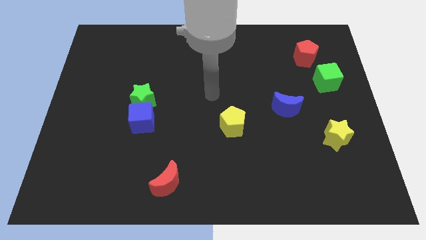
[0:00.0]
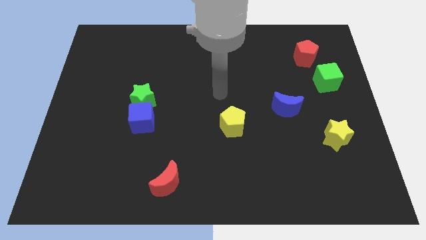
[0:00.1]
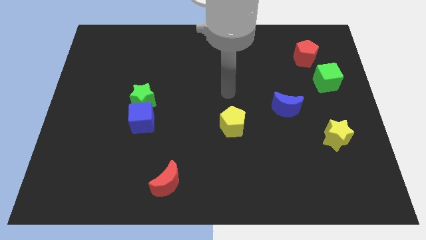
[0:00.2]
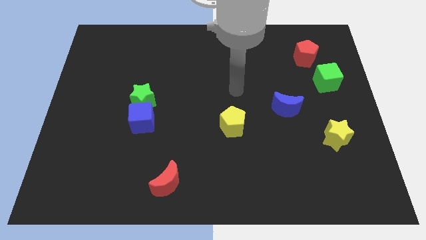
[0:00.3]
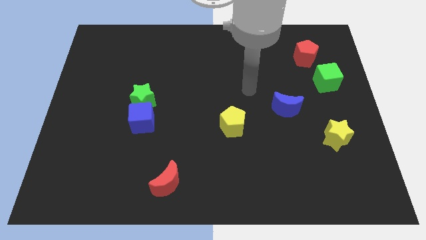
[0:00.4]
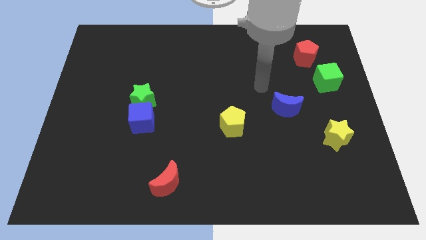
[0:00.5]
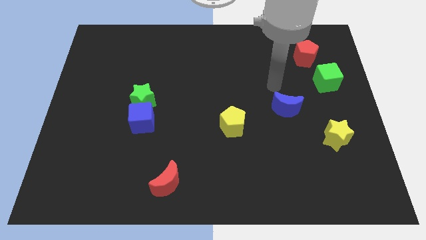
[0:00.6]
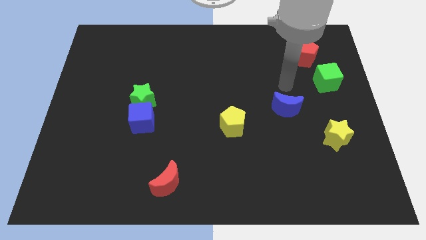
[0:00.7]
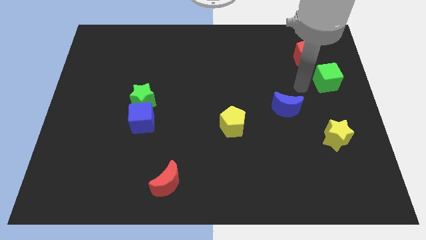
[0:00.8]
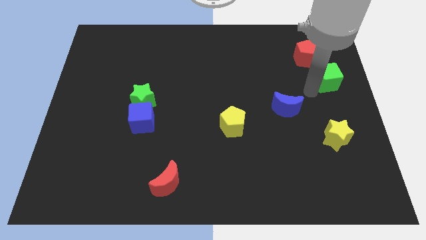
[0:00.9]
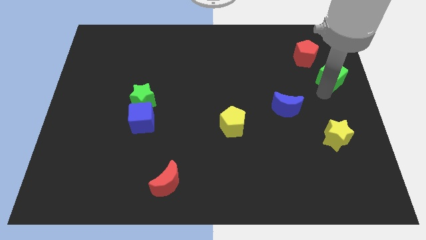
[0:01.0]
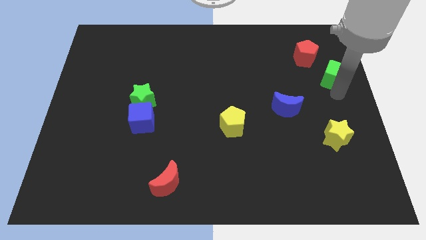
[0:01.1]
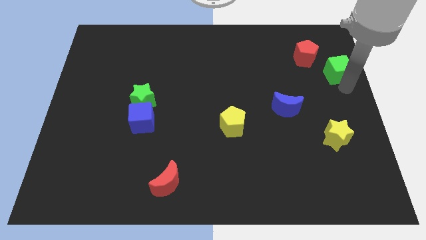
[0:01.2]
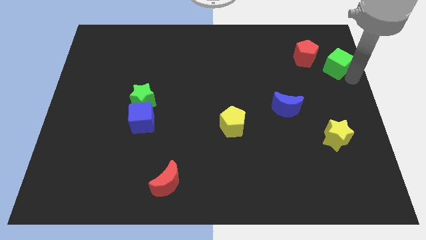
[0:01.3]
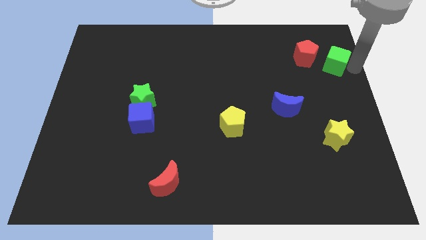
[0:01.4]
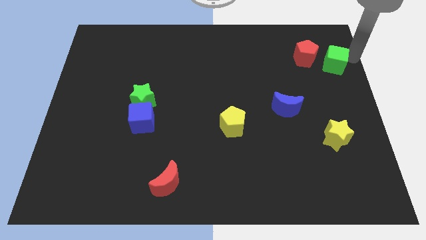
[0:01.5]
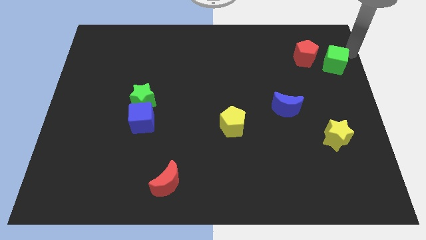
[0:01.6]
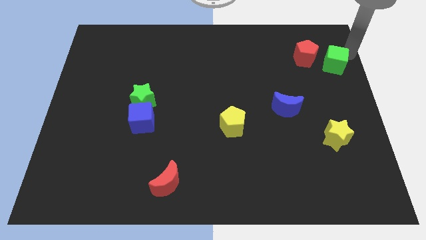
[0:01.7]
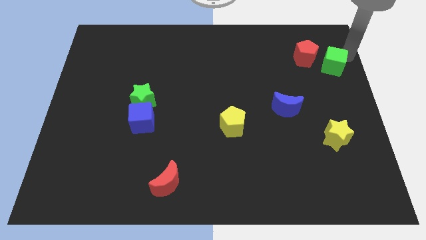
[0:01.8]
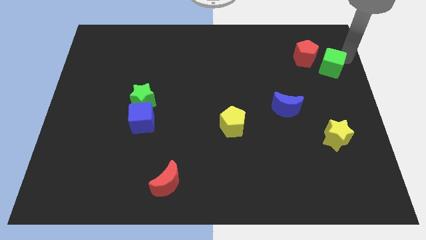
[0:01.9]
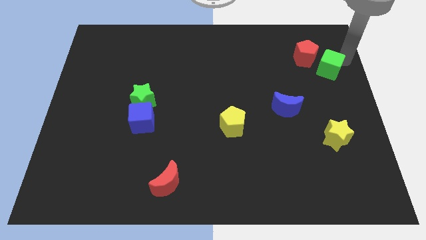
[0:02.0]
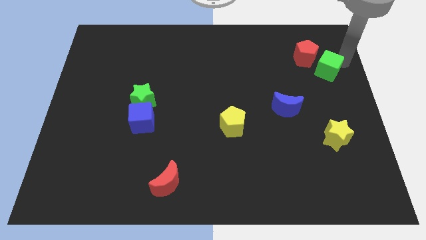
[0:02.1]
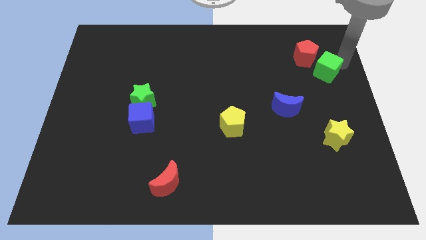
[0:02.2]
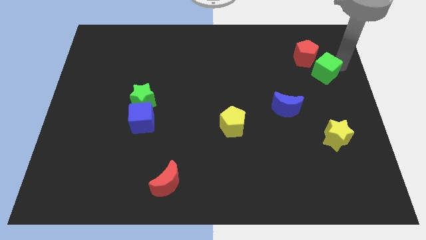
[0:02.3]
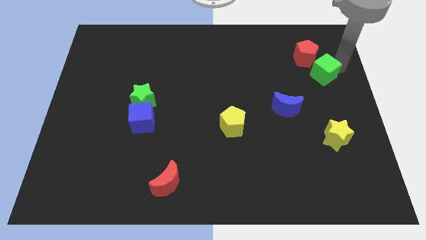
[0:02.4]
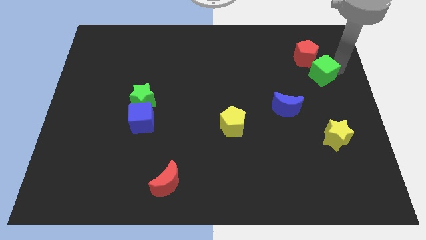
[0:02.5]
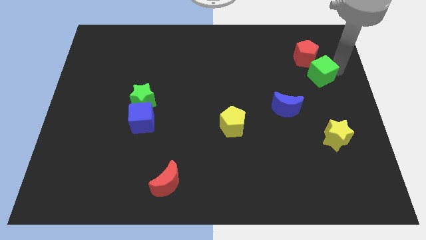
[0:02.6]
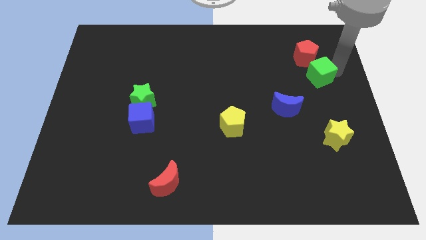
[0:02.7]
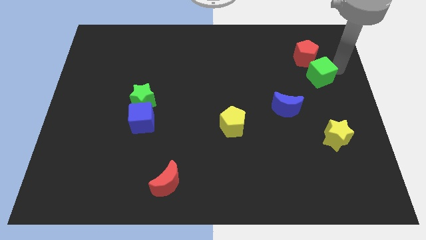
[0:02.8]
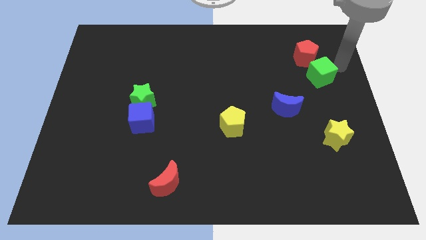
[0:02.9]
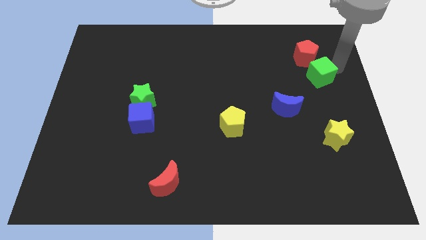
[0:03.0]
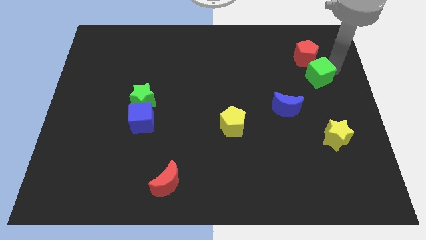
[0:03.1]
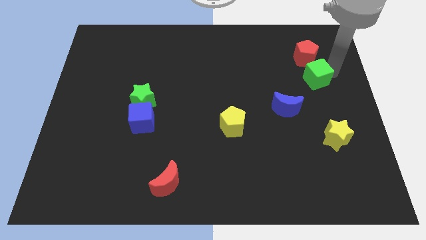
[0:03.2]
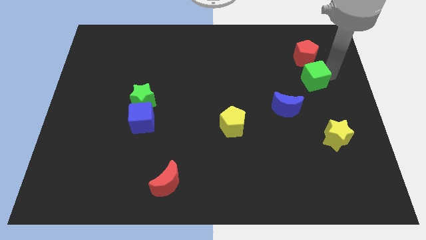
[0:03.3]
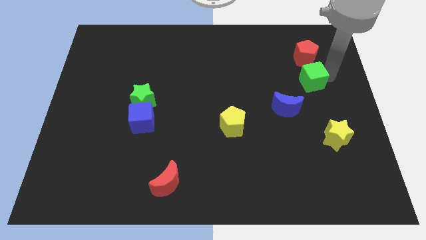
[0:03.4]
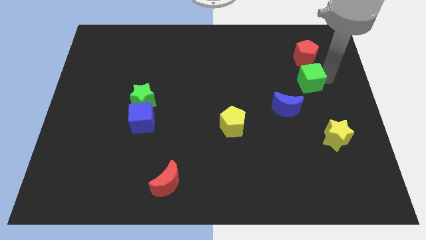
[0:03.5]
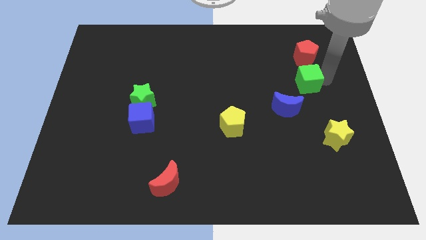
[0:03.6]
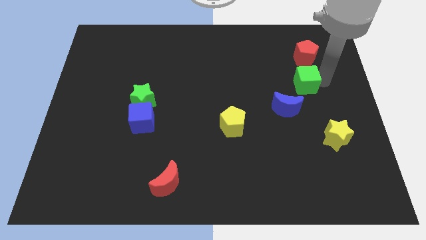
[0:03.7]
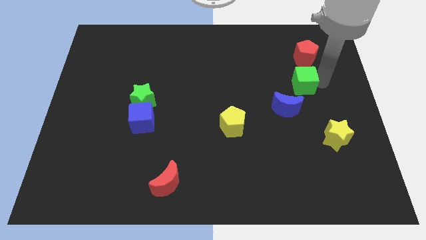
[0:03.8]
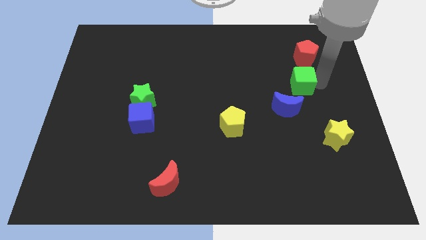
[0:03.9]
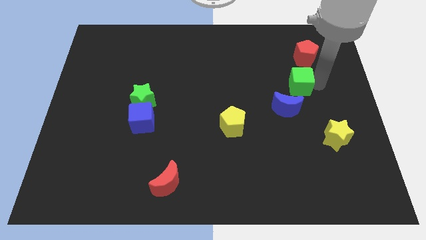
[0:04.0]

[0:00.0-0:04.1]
slightly move the green cube left

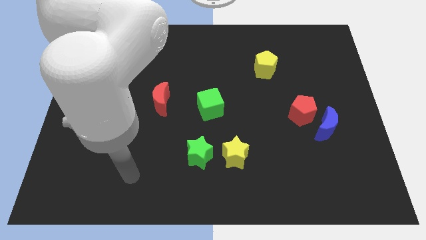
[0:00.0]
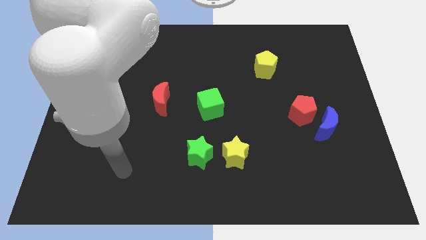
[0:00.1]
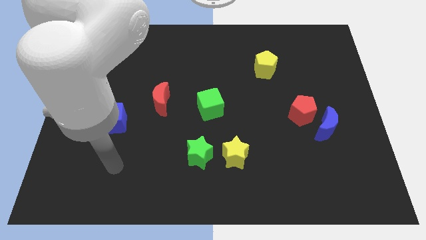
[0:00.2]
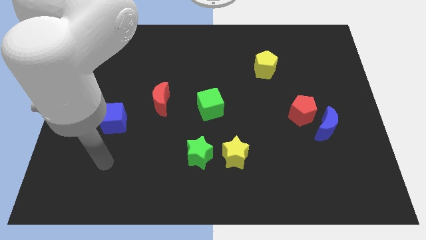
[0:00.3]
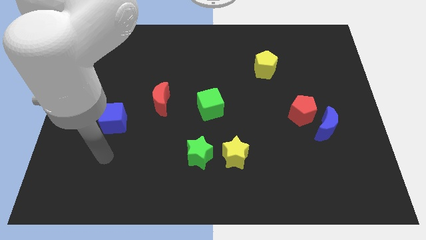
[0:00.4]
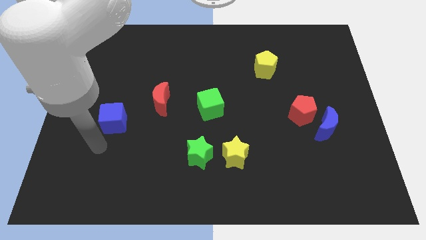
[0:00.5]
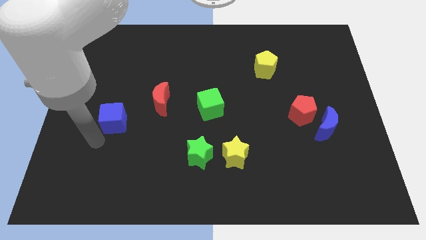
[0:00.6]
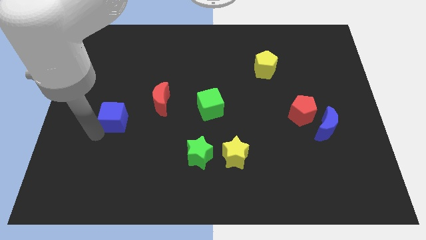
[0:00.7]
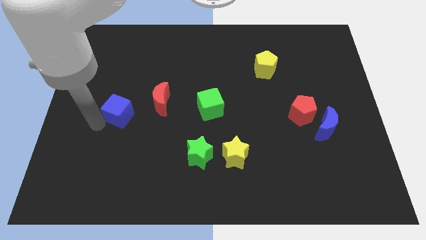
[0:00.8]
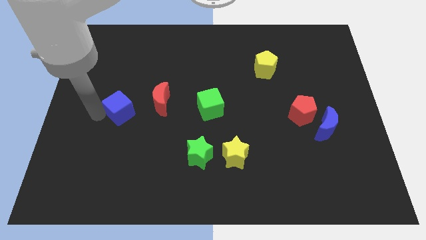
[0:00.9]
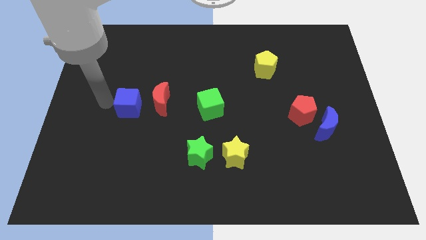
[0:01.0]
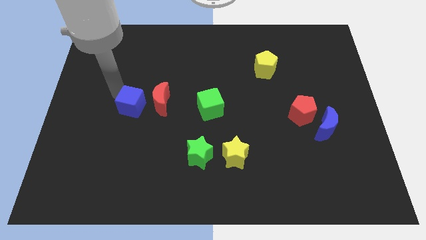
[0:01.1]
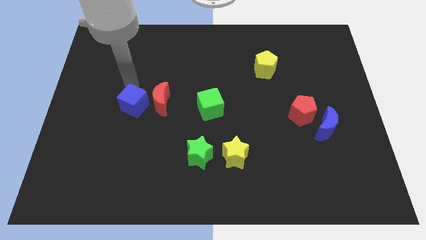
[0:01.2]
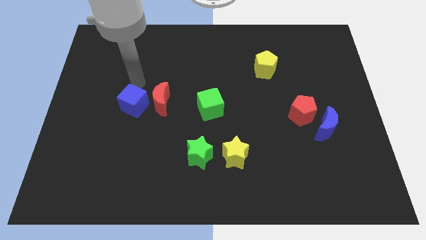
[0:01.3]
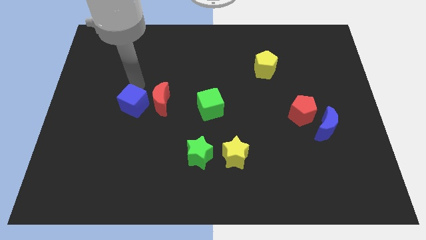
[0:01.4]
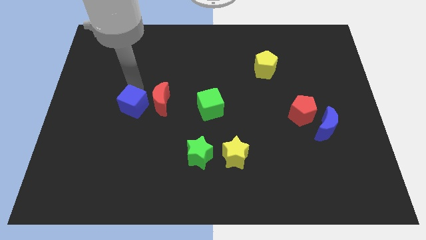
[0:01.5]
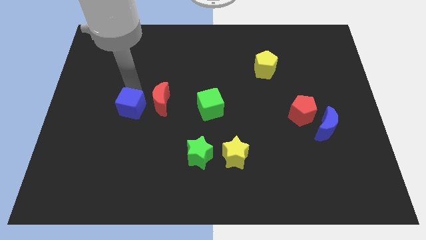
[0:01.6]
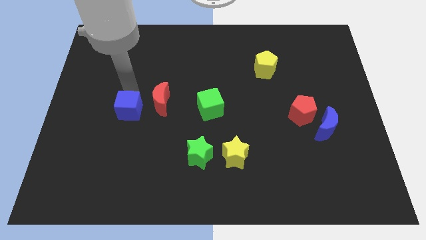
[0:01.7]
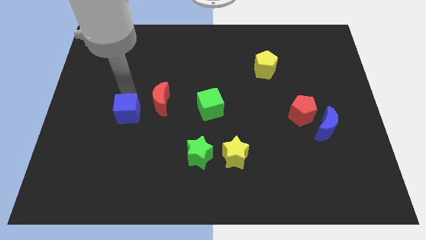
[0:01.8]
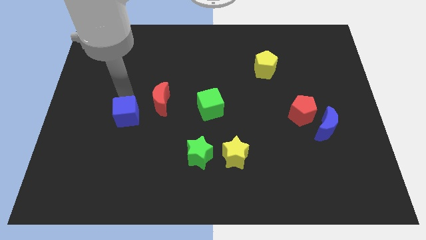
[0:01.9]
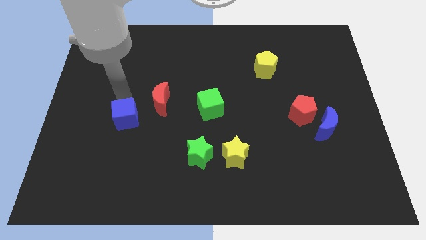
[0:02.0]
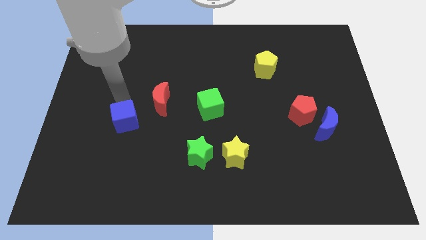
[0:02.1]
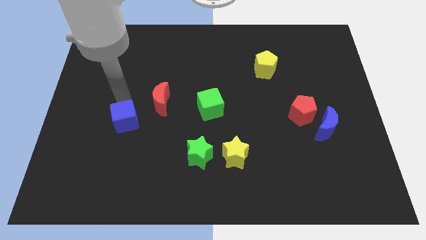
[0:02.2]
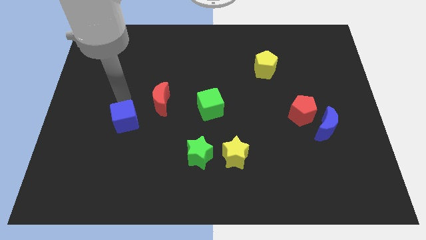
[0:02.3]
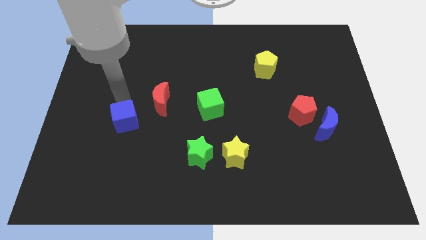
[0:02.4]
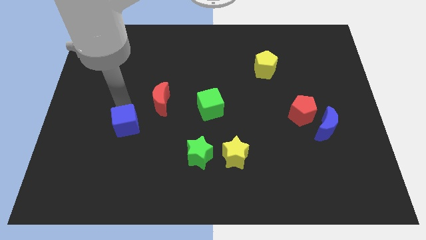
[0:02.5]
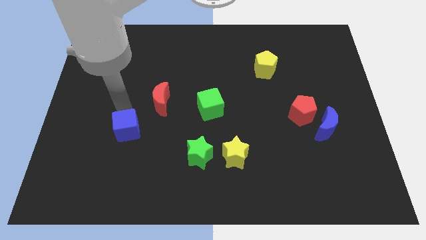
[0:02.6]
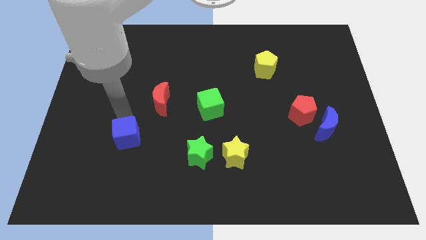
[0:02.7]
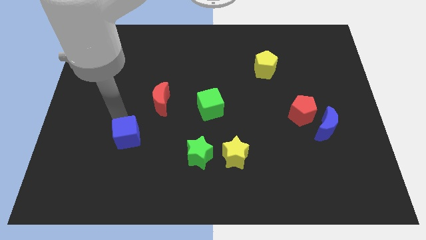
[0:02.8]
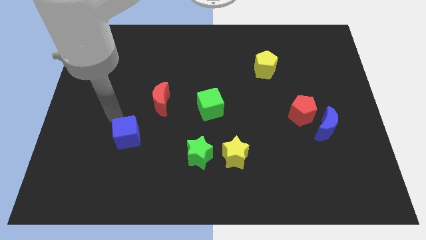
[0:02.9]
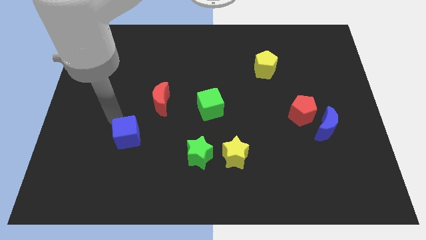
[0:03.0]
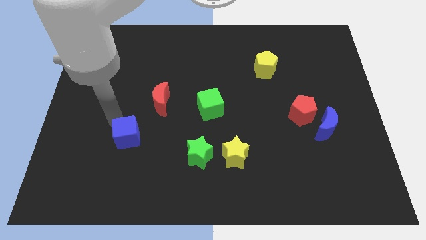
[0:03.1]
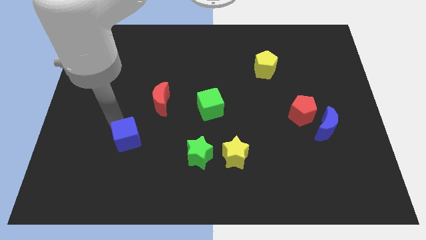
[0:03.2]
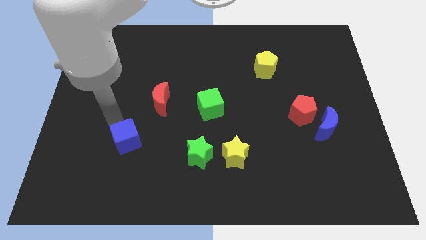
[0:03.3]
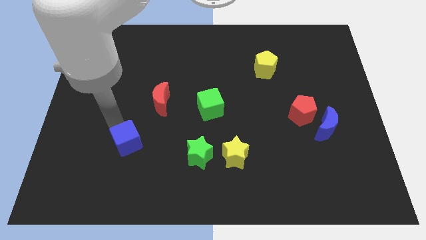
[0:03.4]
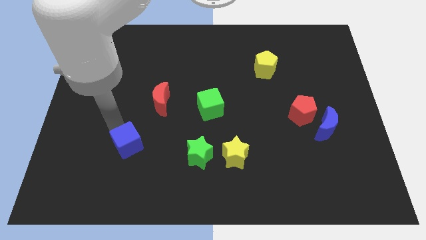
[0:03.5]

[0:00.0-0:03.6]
slightly slide the blue cube downwards and then right

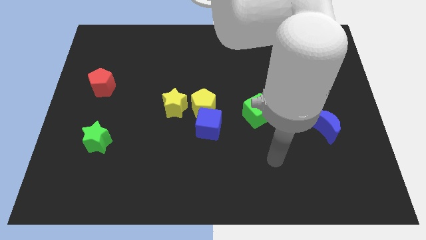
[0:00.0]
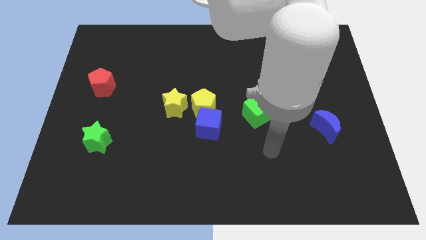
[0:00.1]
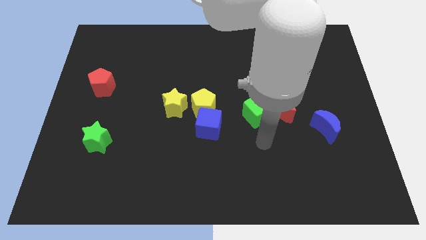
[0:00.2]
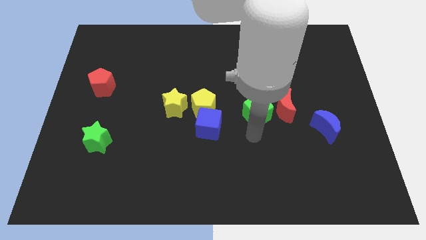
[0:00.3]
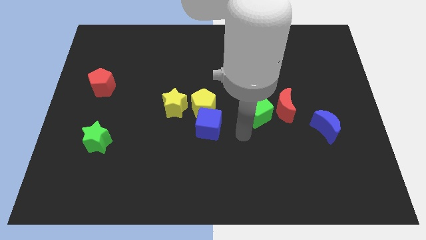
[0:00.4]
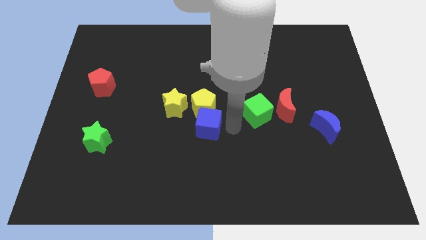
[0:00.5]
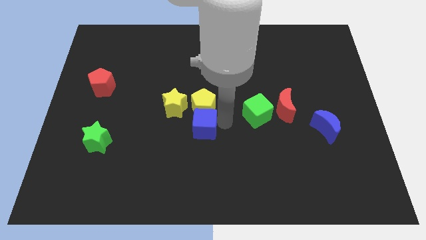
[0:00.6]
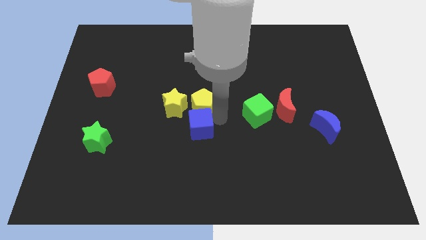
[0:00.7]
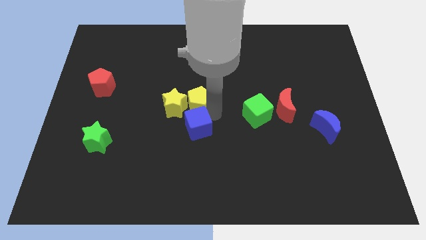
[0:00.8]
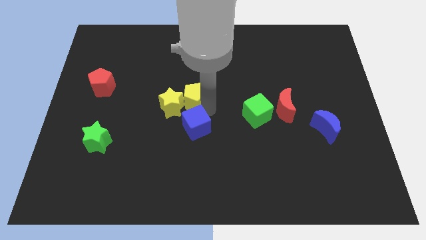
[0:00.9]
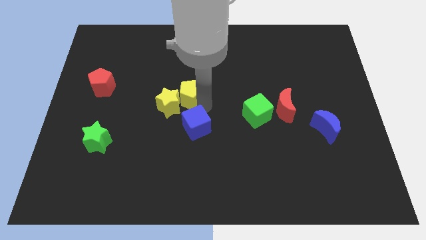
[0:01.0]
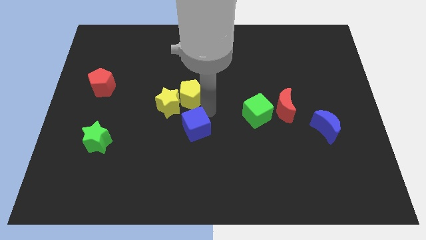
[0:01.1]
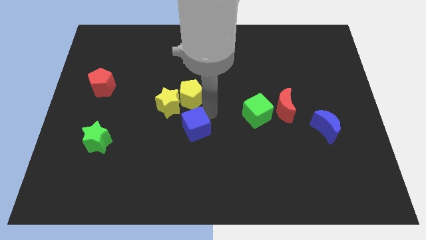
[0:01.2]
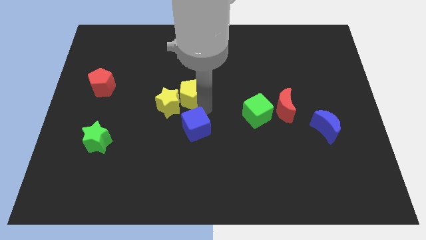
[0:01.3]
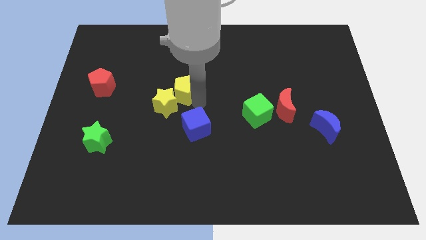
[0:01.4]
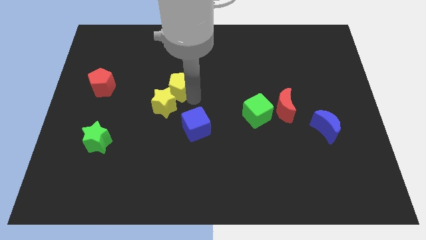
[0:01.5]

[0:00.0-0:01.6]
push the yellow pentagon a little up and left
